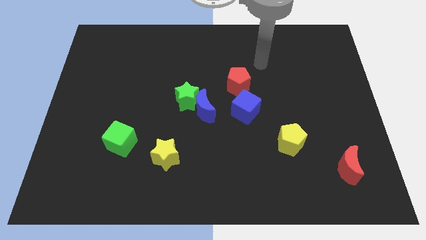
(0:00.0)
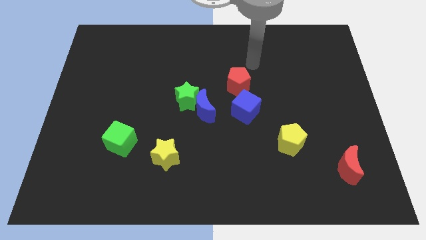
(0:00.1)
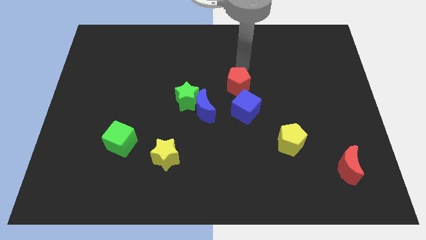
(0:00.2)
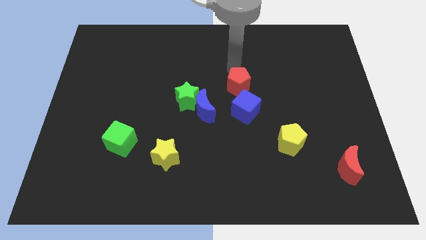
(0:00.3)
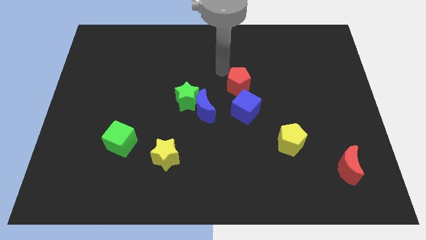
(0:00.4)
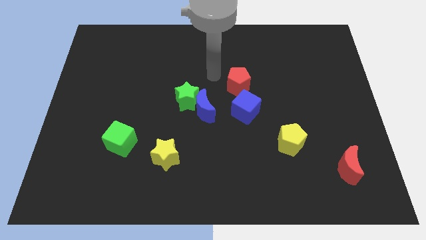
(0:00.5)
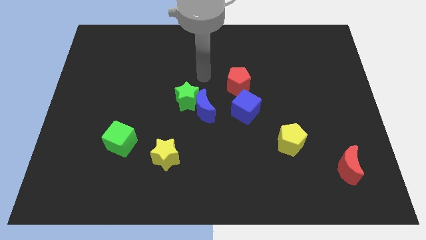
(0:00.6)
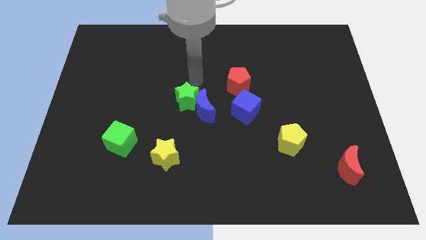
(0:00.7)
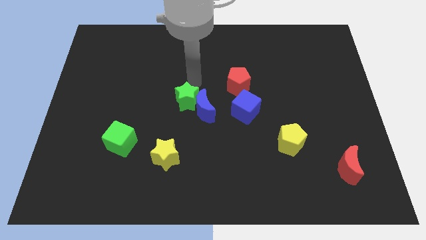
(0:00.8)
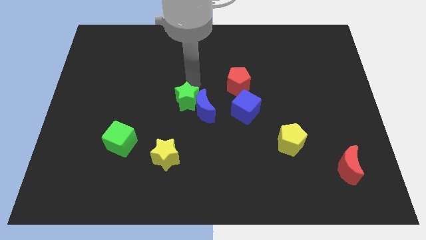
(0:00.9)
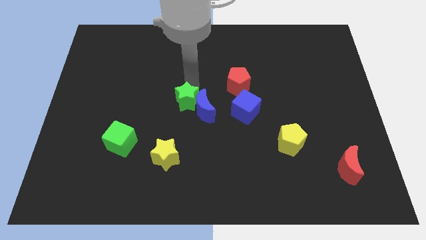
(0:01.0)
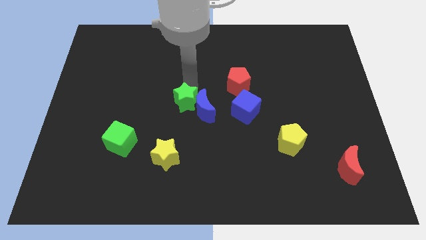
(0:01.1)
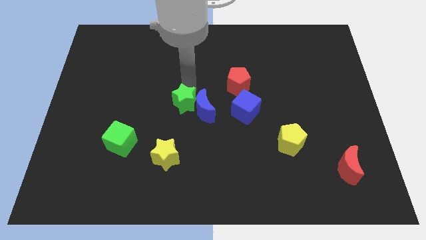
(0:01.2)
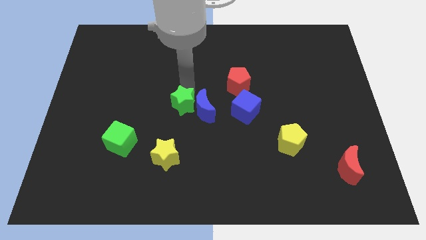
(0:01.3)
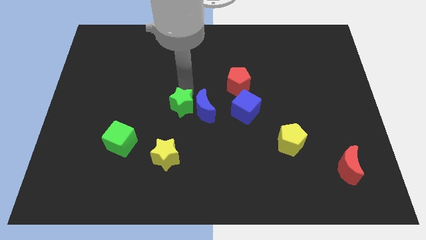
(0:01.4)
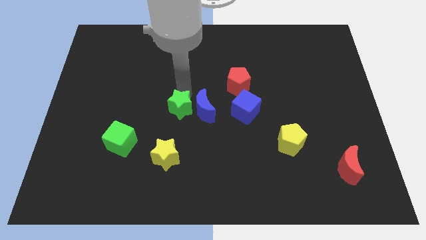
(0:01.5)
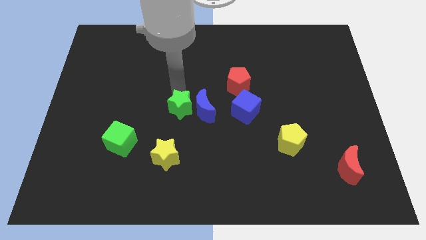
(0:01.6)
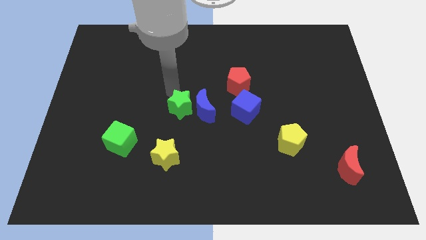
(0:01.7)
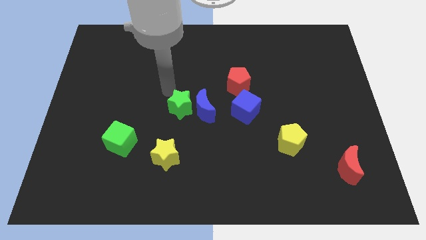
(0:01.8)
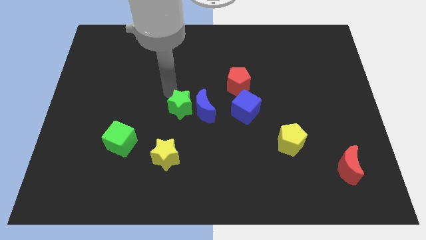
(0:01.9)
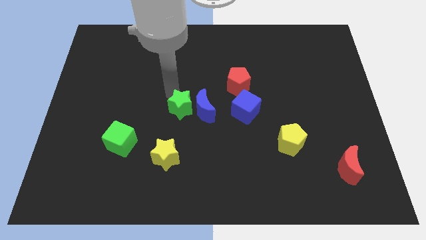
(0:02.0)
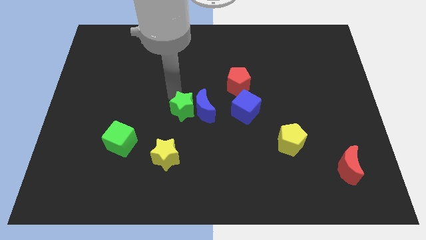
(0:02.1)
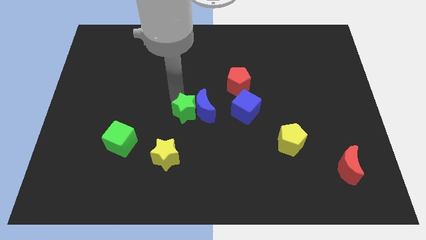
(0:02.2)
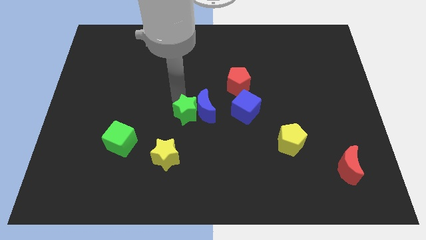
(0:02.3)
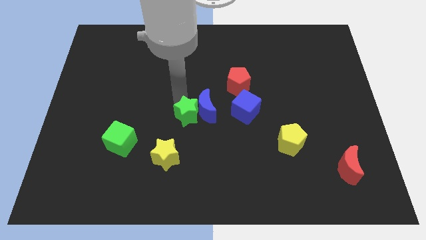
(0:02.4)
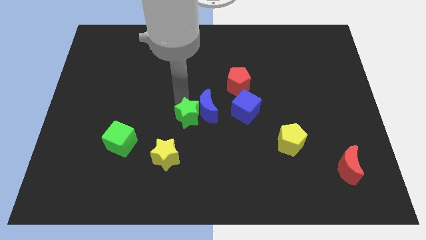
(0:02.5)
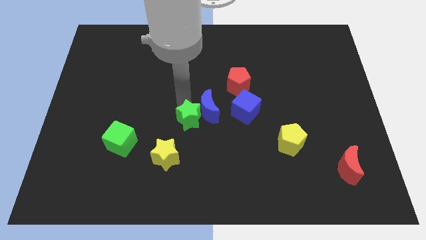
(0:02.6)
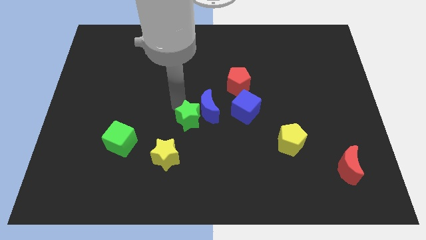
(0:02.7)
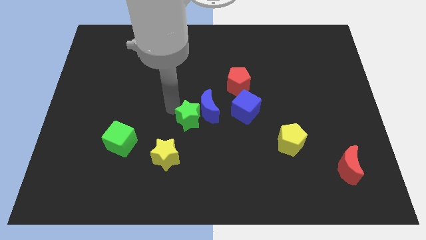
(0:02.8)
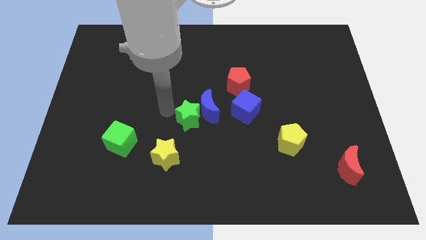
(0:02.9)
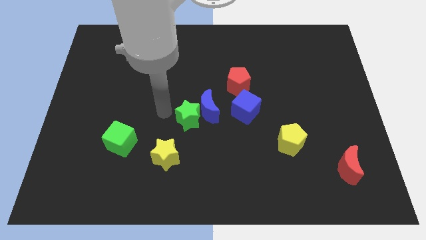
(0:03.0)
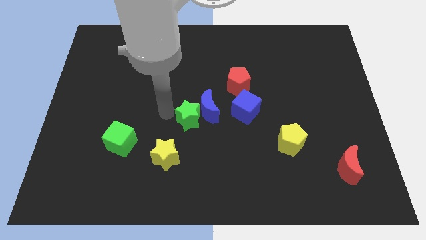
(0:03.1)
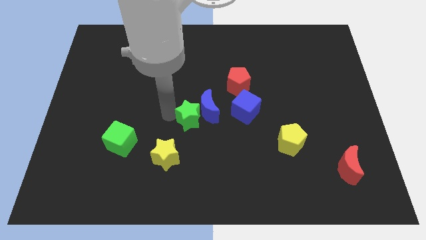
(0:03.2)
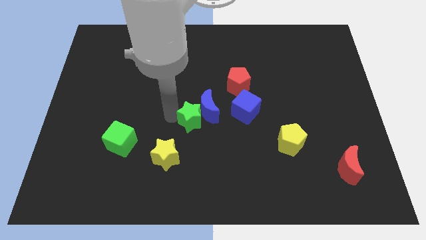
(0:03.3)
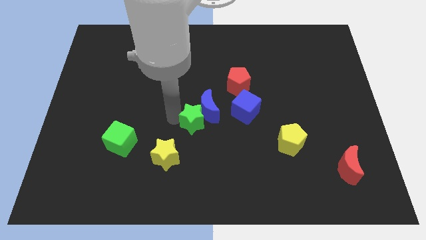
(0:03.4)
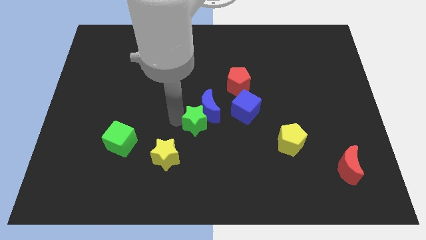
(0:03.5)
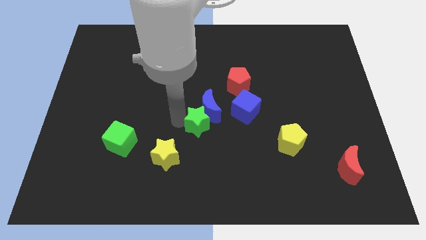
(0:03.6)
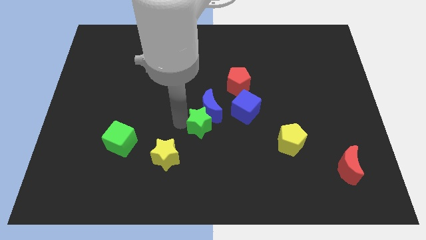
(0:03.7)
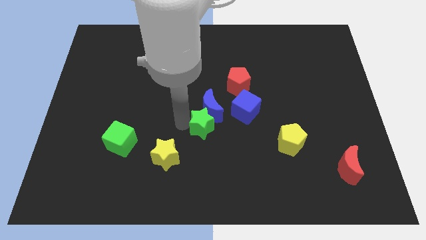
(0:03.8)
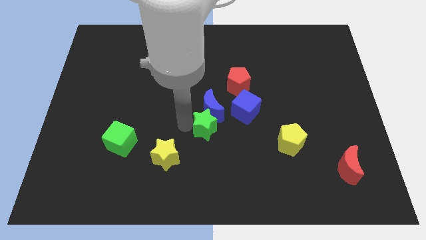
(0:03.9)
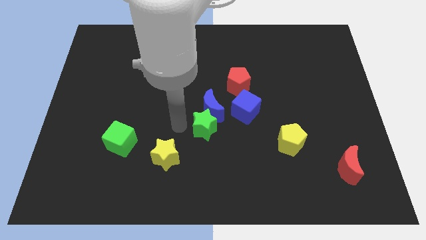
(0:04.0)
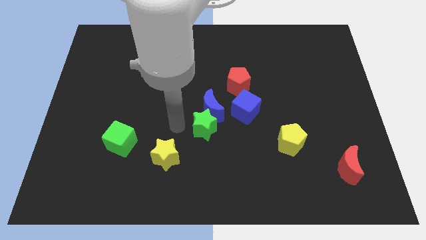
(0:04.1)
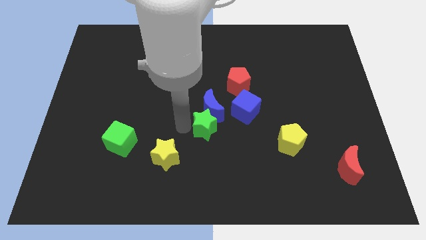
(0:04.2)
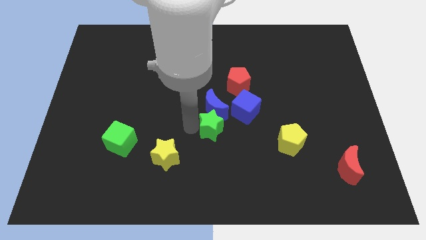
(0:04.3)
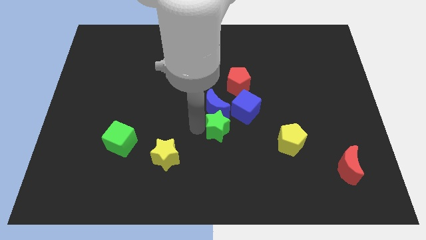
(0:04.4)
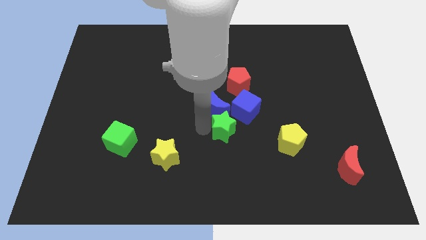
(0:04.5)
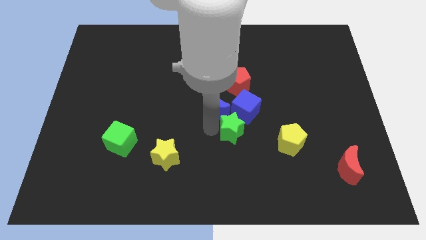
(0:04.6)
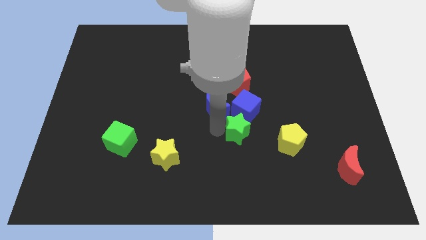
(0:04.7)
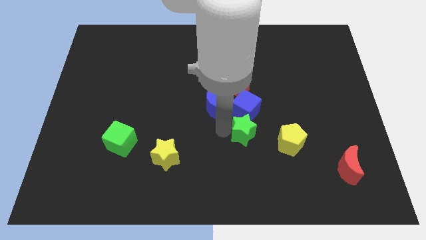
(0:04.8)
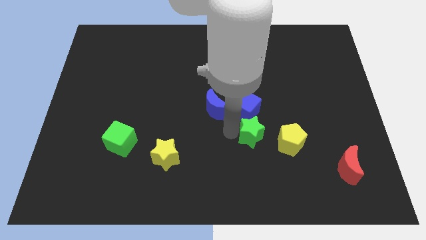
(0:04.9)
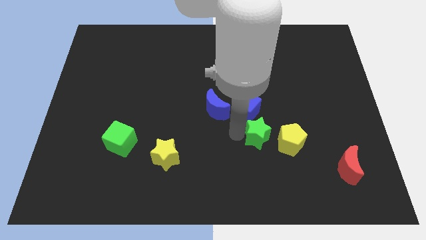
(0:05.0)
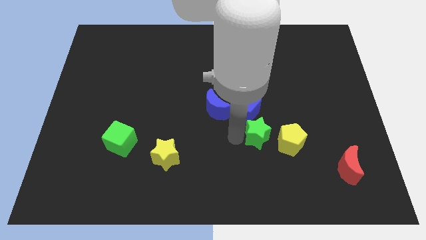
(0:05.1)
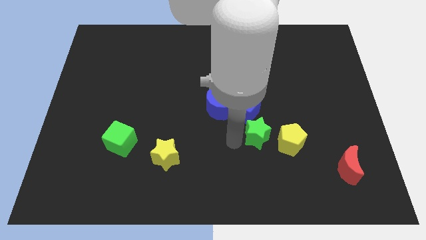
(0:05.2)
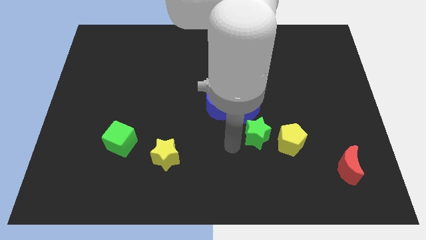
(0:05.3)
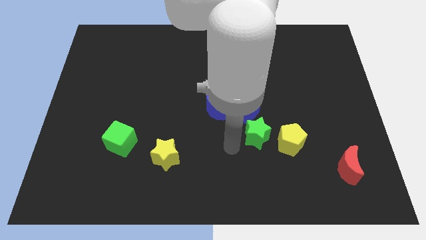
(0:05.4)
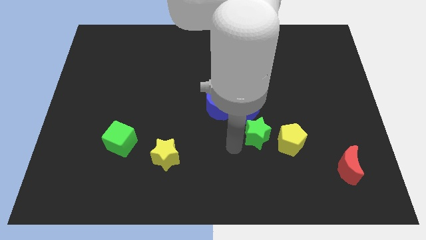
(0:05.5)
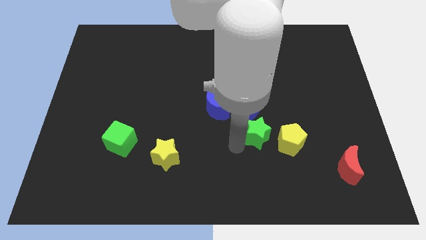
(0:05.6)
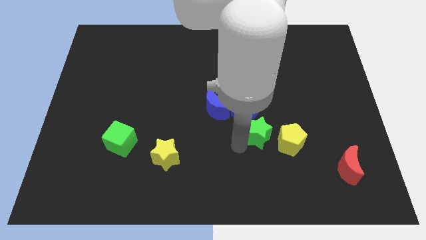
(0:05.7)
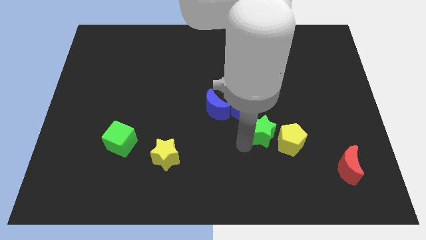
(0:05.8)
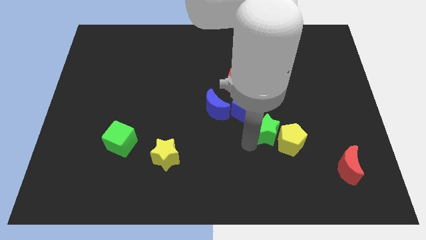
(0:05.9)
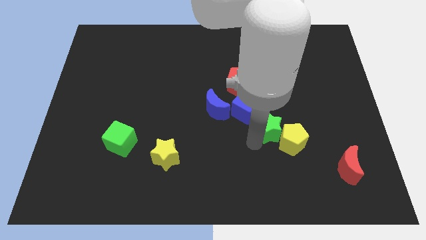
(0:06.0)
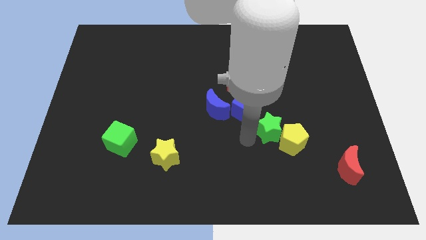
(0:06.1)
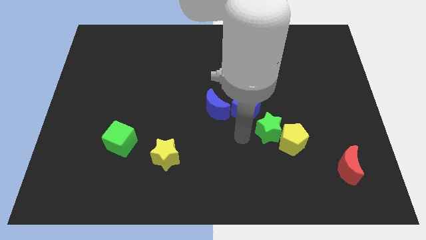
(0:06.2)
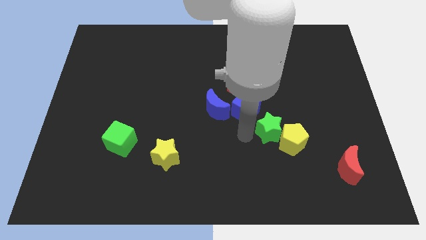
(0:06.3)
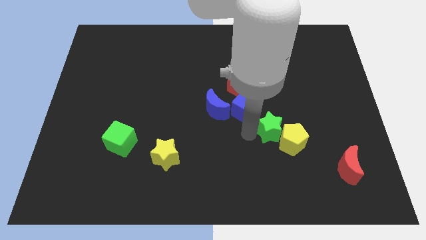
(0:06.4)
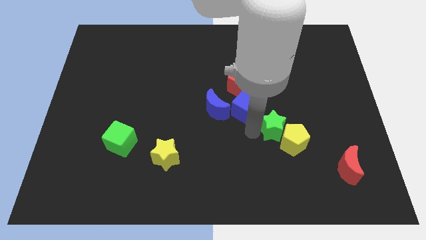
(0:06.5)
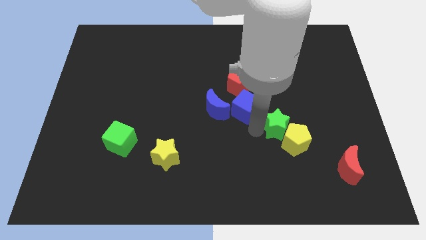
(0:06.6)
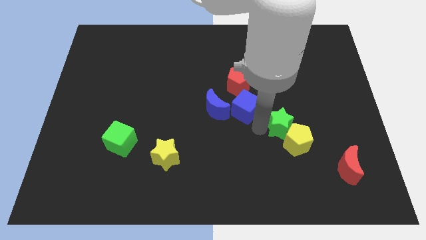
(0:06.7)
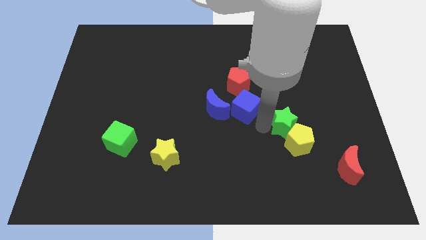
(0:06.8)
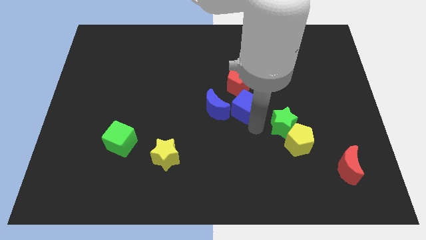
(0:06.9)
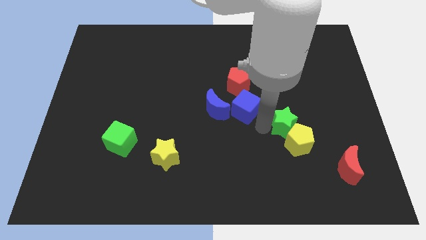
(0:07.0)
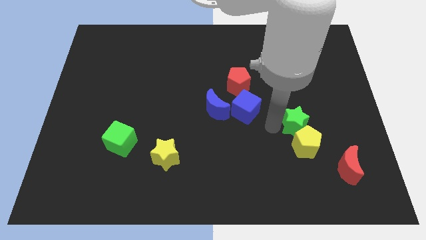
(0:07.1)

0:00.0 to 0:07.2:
put the green star to the top right of the yellow pentagon
